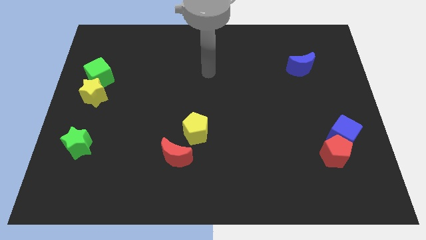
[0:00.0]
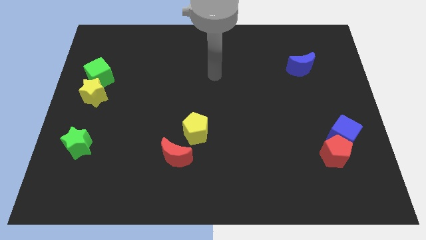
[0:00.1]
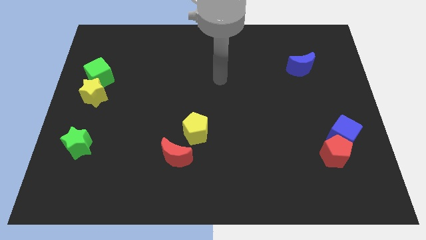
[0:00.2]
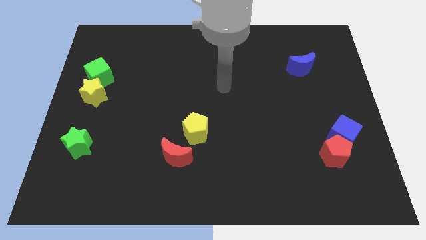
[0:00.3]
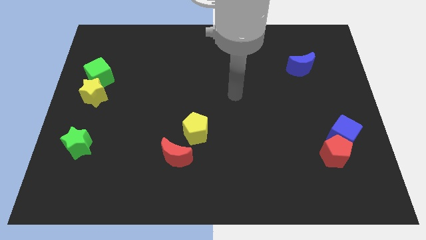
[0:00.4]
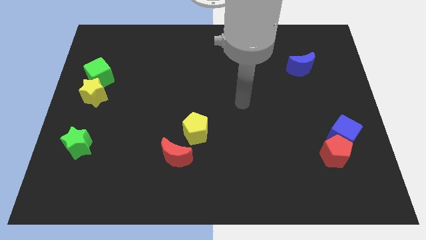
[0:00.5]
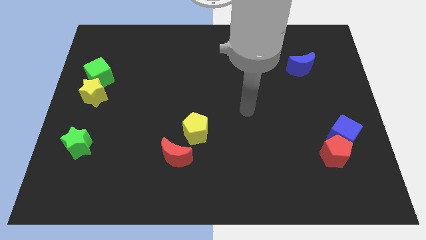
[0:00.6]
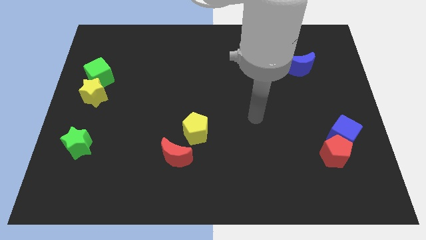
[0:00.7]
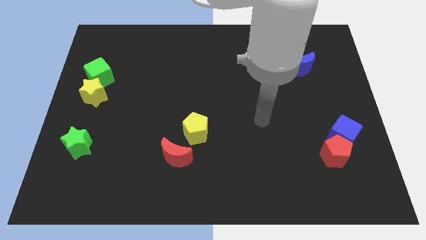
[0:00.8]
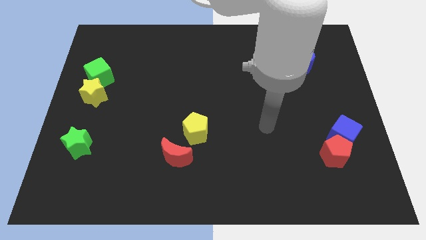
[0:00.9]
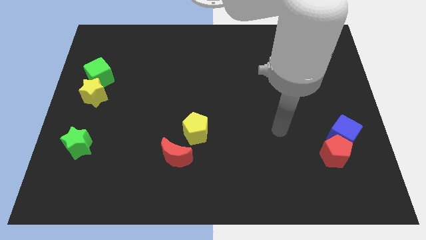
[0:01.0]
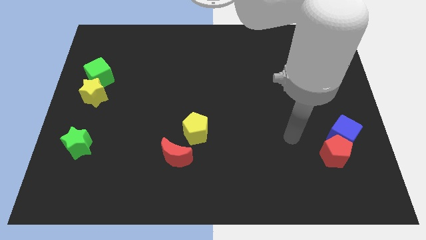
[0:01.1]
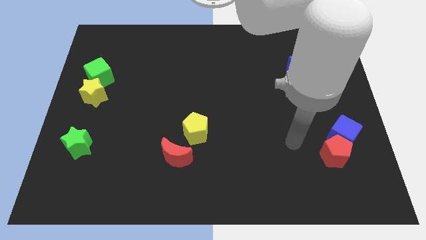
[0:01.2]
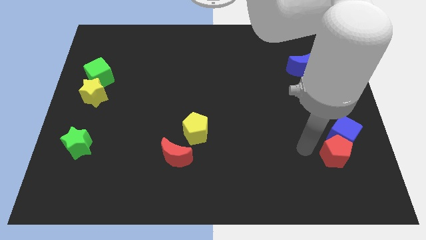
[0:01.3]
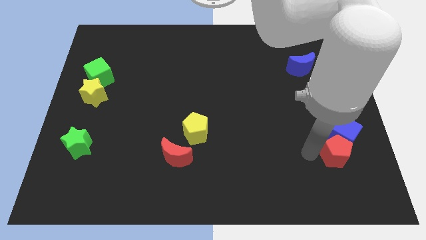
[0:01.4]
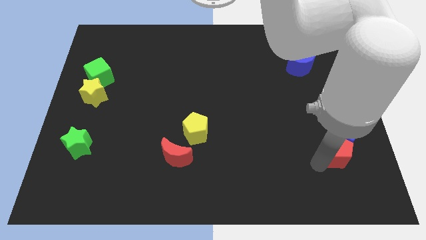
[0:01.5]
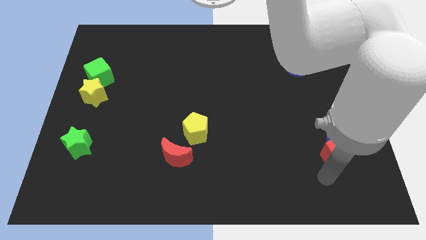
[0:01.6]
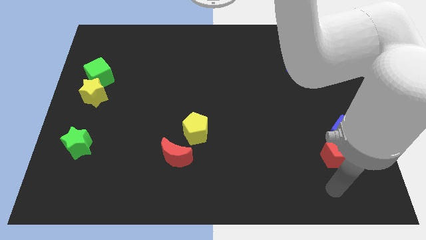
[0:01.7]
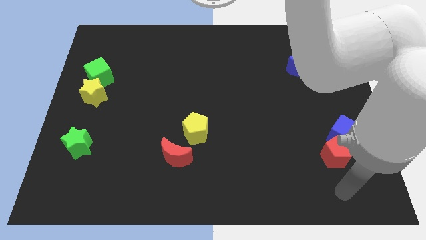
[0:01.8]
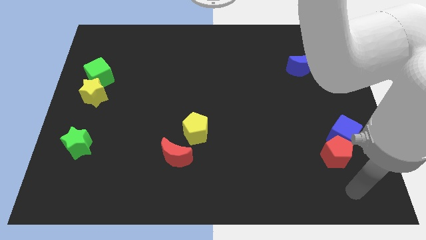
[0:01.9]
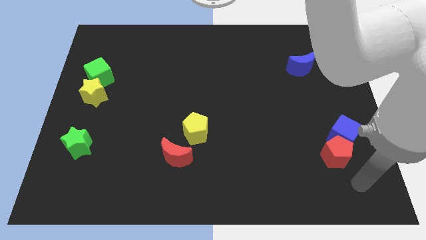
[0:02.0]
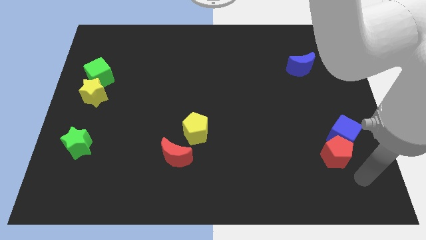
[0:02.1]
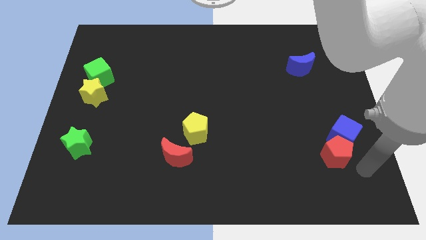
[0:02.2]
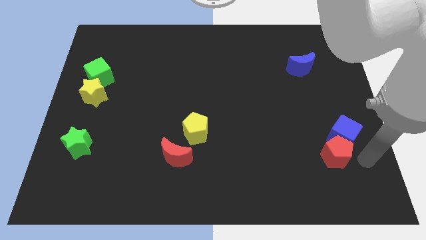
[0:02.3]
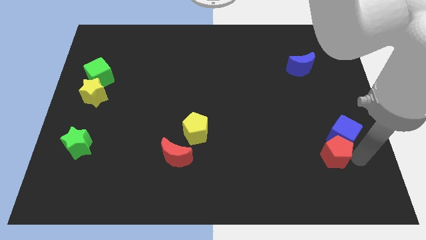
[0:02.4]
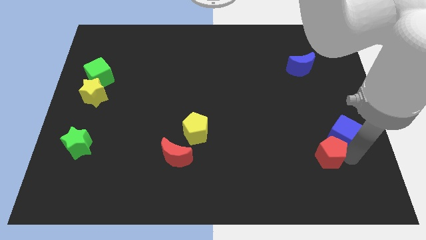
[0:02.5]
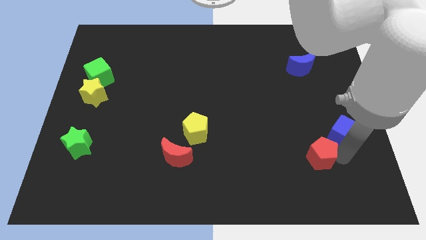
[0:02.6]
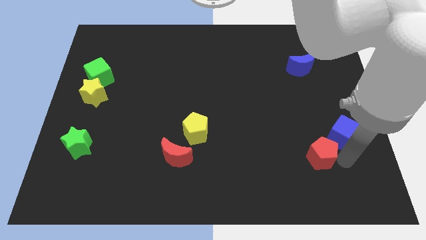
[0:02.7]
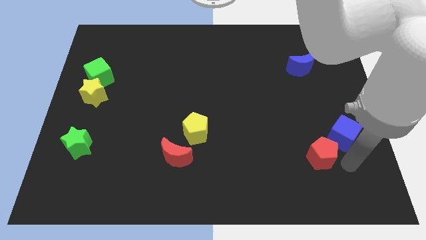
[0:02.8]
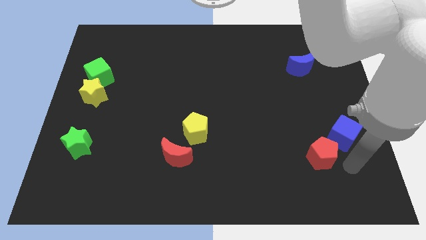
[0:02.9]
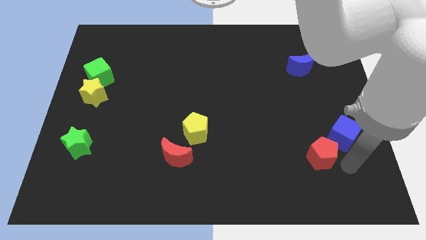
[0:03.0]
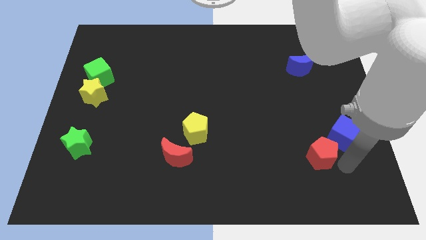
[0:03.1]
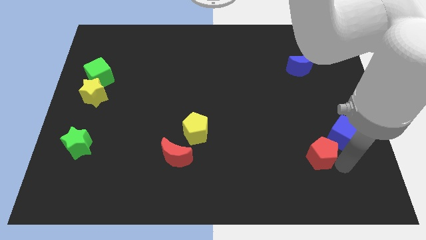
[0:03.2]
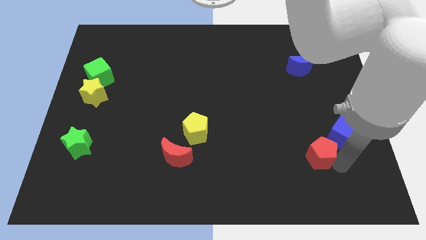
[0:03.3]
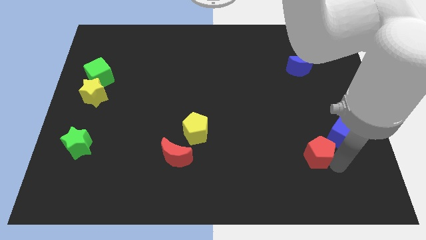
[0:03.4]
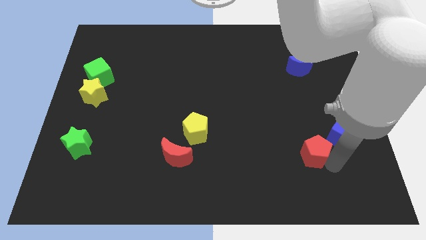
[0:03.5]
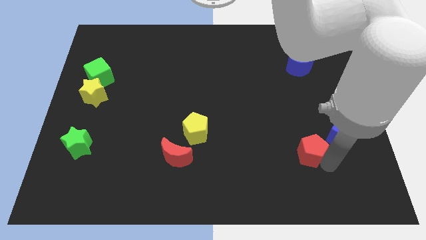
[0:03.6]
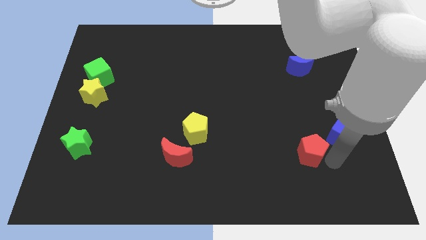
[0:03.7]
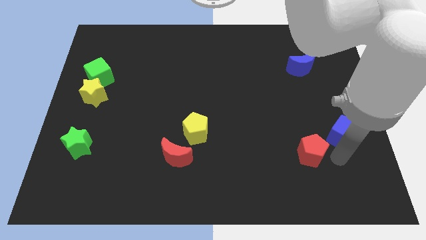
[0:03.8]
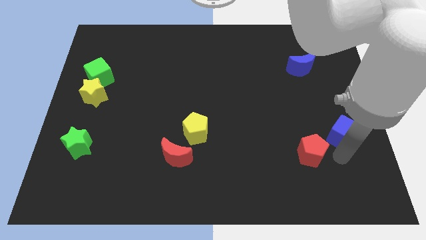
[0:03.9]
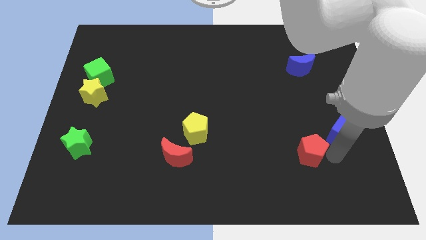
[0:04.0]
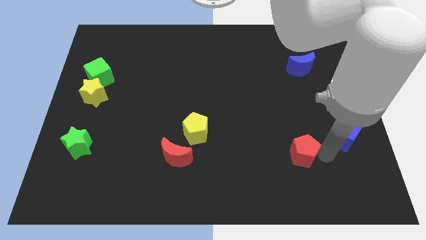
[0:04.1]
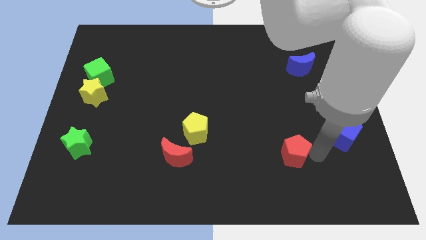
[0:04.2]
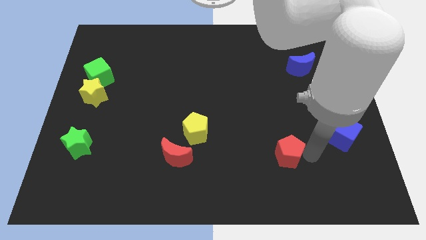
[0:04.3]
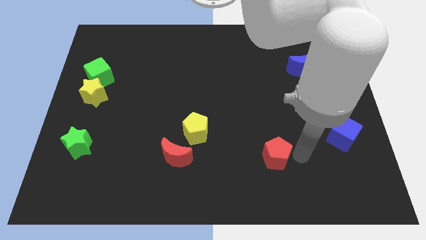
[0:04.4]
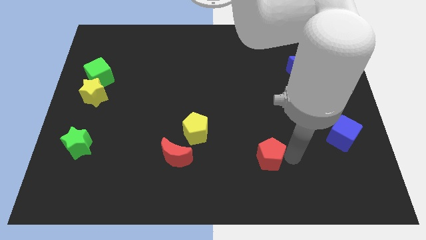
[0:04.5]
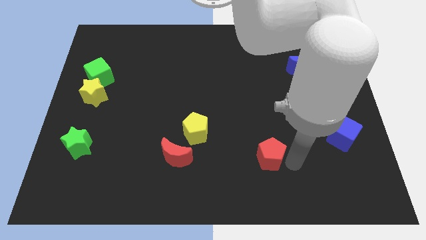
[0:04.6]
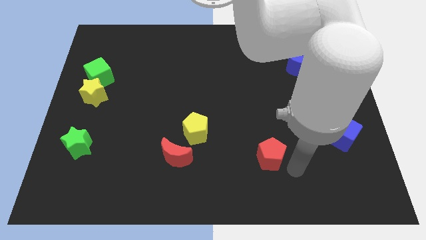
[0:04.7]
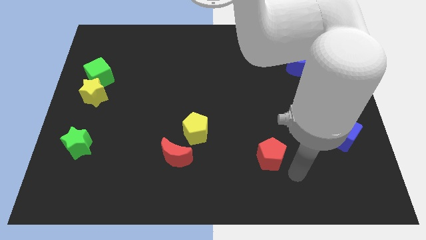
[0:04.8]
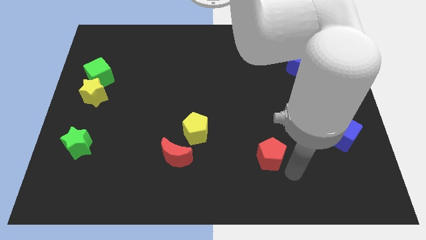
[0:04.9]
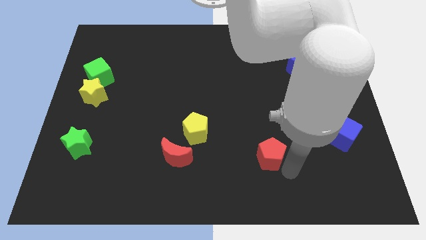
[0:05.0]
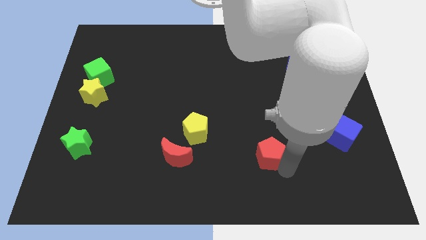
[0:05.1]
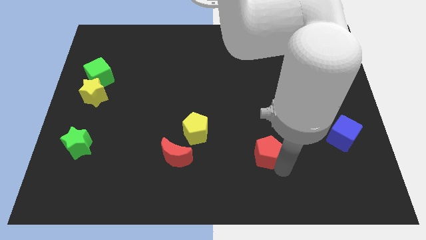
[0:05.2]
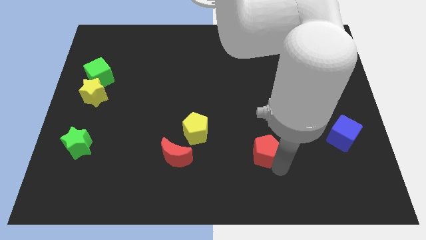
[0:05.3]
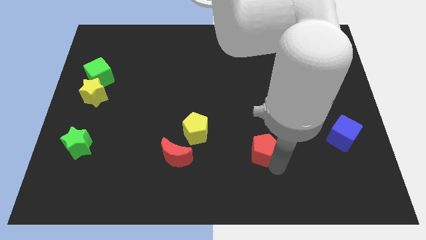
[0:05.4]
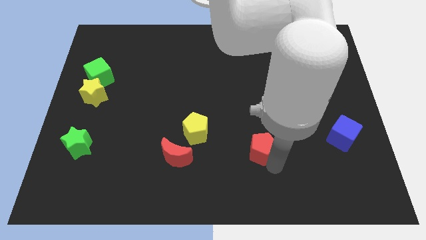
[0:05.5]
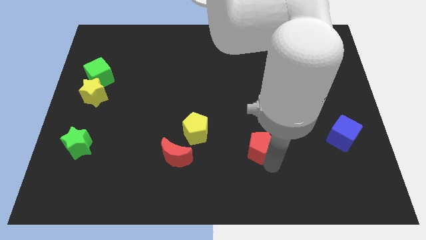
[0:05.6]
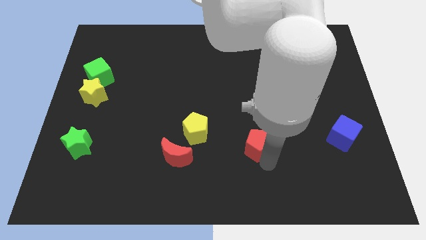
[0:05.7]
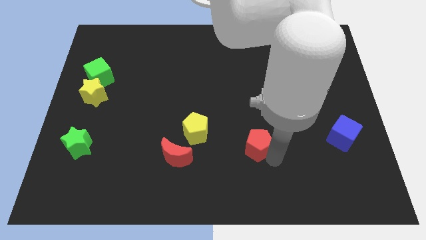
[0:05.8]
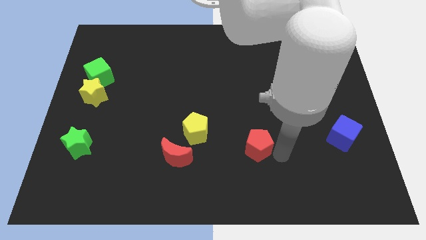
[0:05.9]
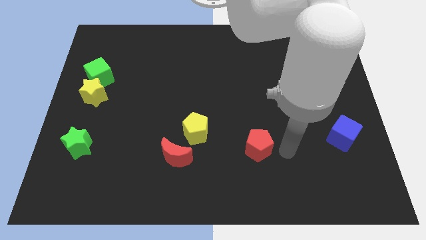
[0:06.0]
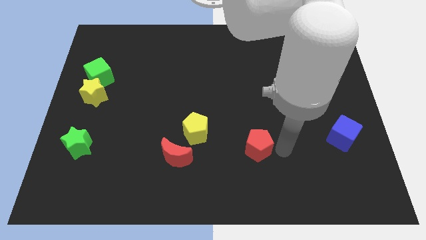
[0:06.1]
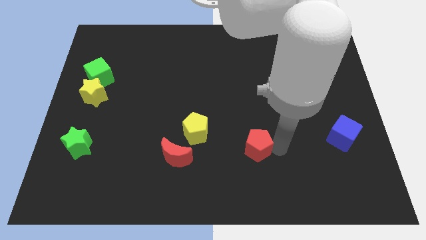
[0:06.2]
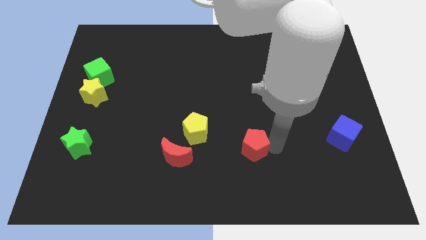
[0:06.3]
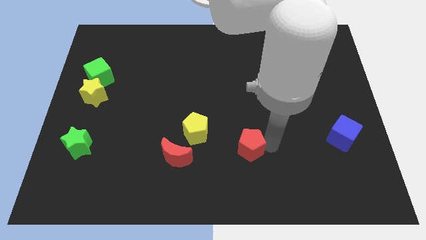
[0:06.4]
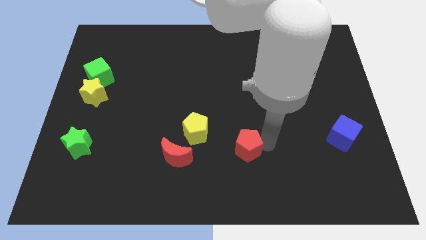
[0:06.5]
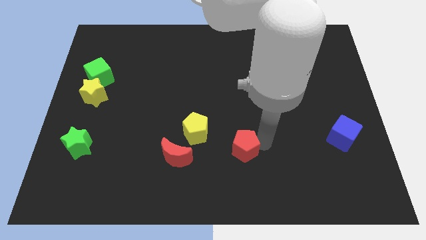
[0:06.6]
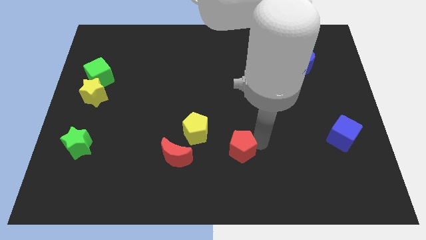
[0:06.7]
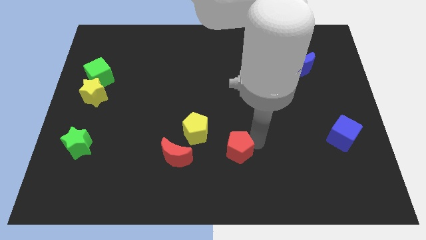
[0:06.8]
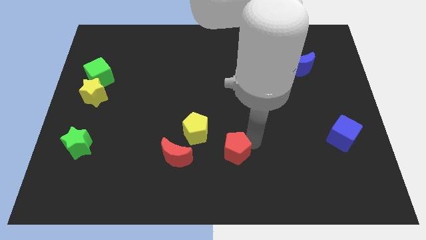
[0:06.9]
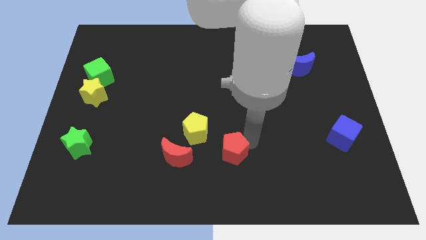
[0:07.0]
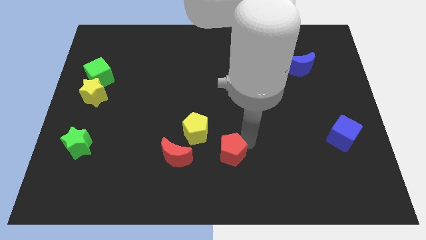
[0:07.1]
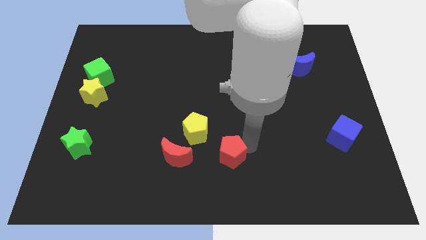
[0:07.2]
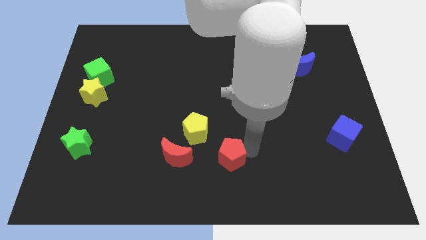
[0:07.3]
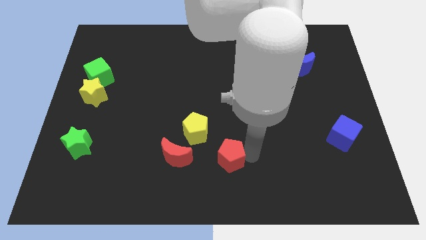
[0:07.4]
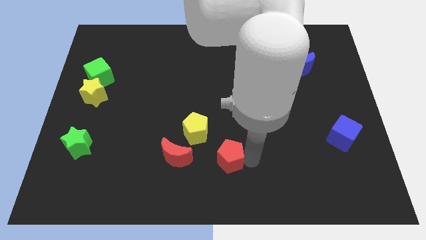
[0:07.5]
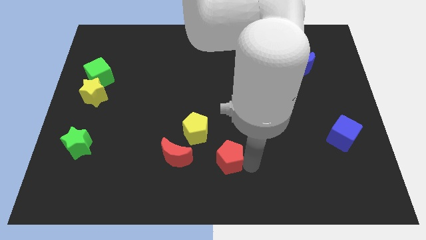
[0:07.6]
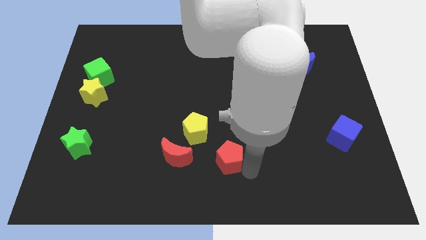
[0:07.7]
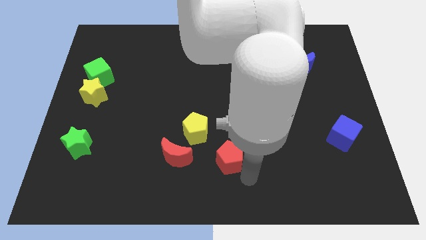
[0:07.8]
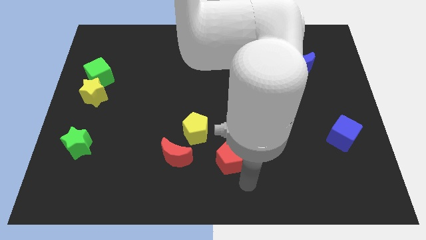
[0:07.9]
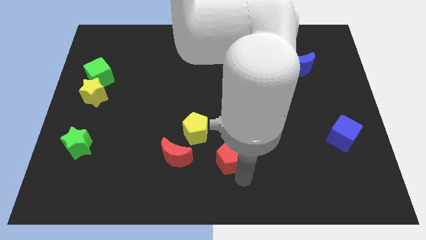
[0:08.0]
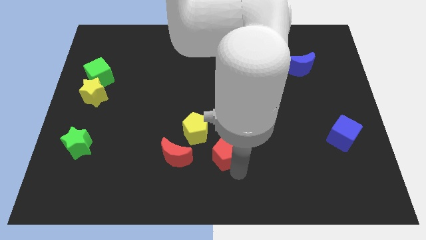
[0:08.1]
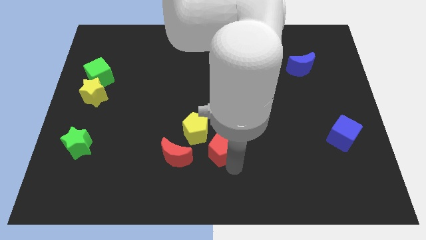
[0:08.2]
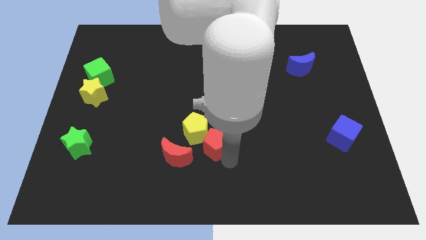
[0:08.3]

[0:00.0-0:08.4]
slide the red pentagon towards the yellow pentagon
